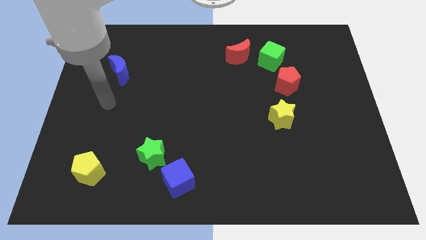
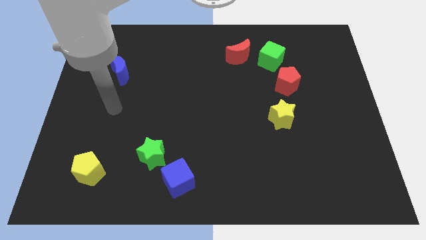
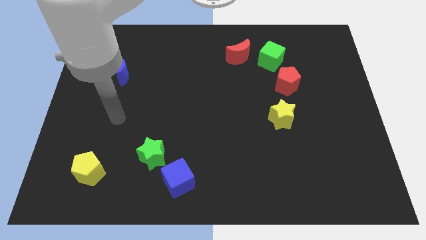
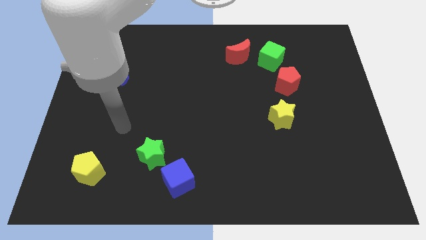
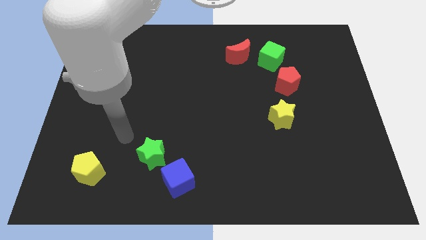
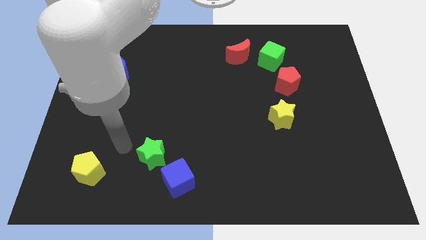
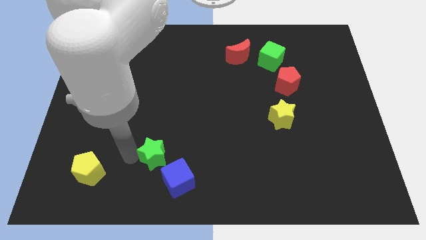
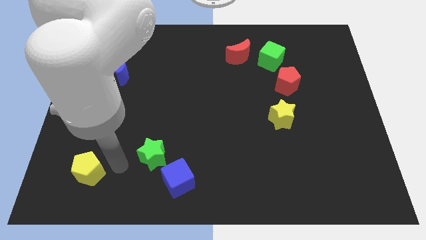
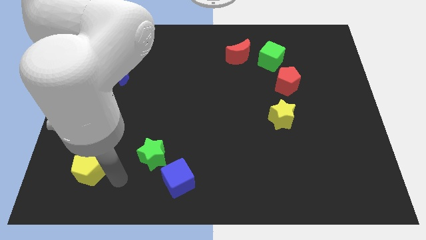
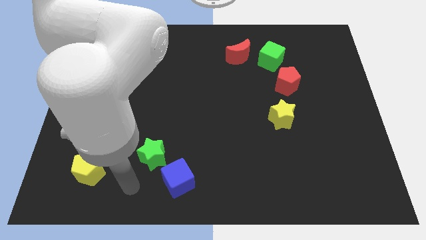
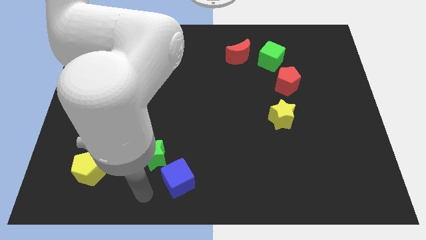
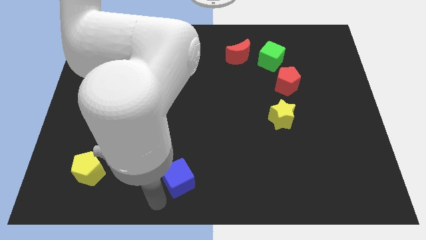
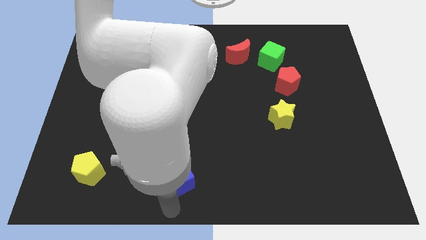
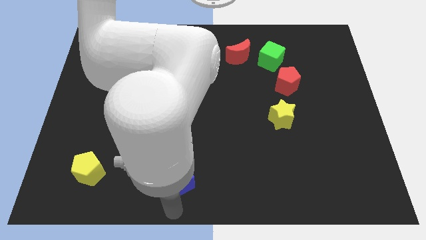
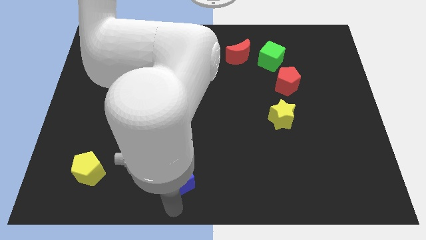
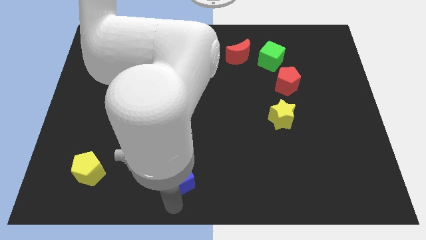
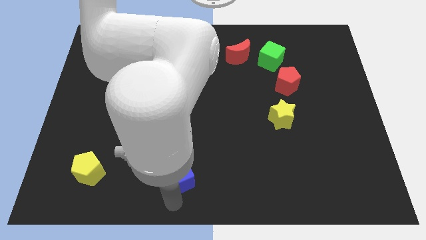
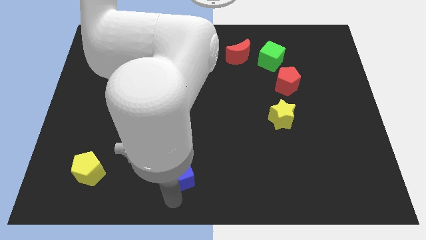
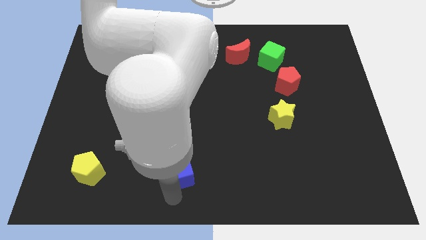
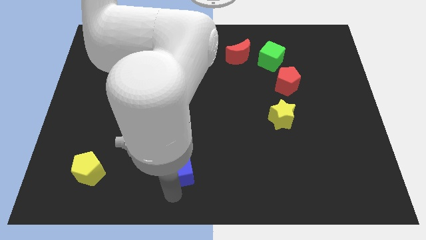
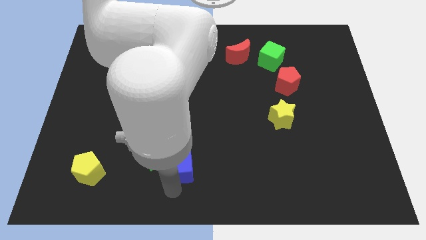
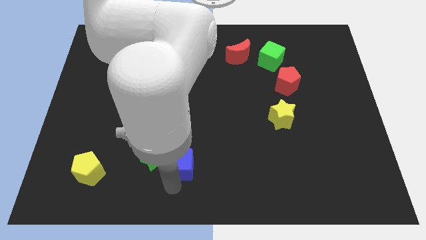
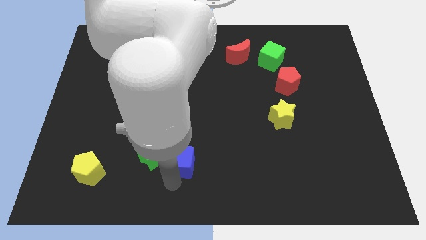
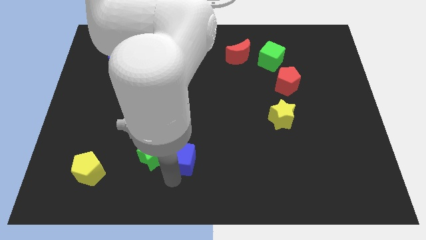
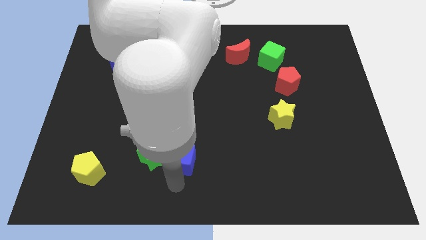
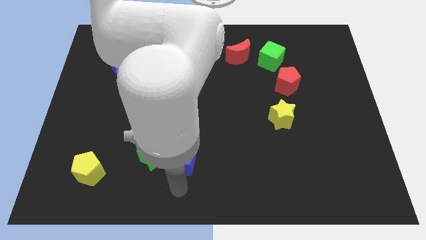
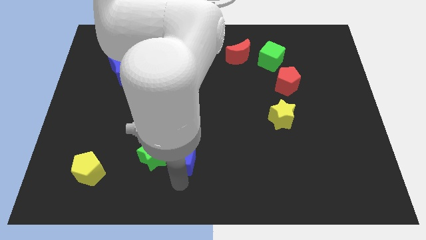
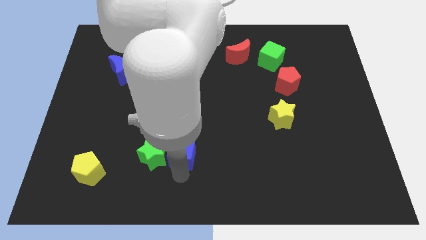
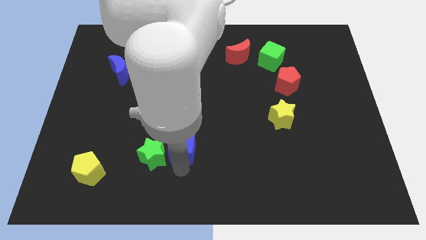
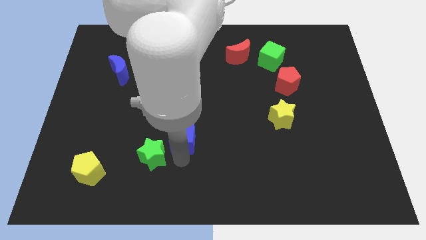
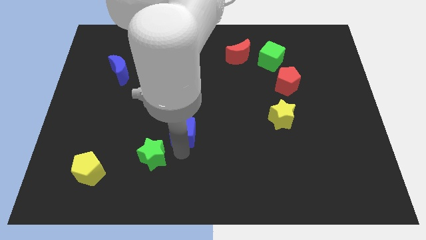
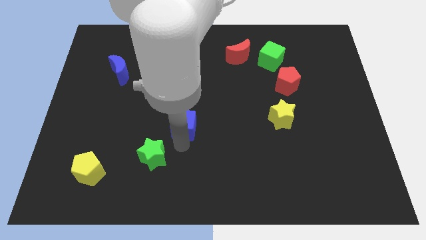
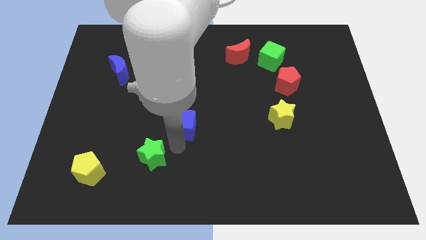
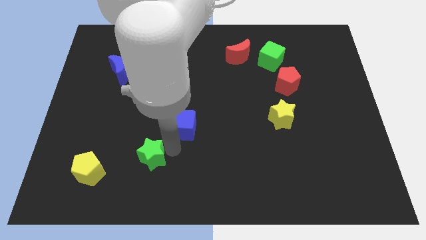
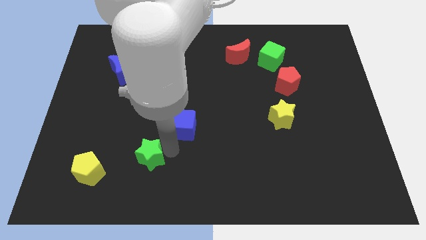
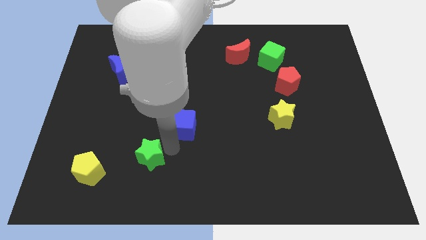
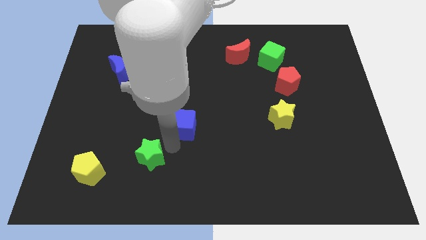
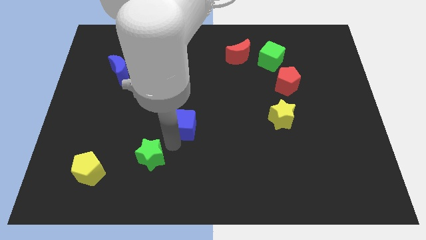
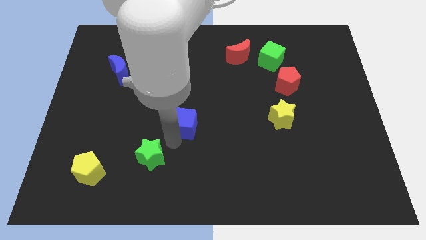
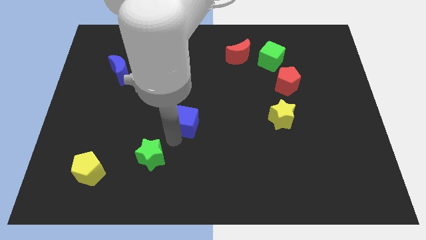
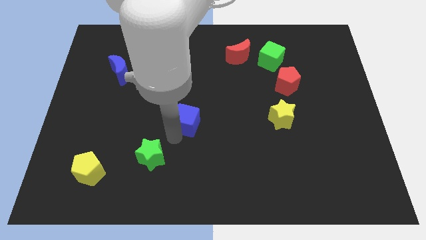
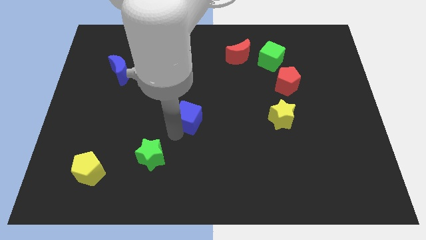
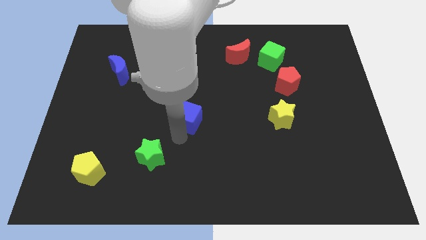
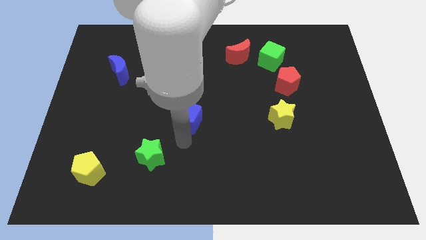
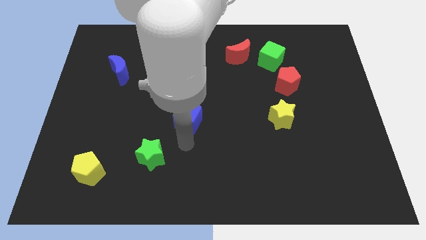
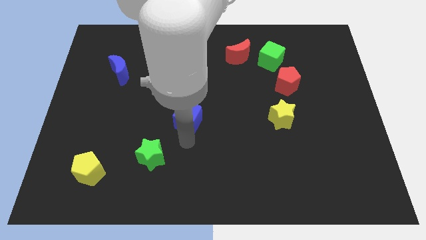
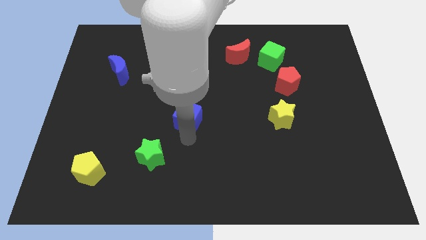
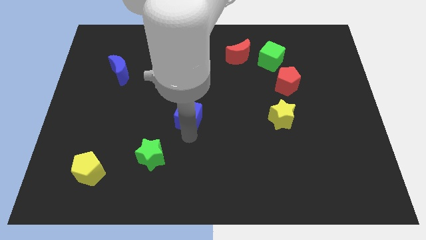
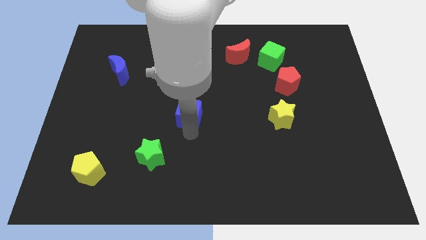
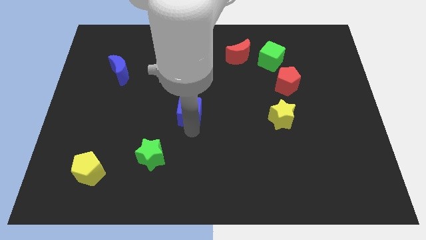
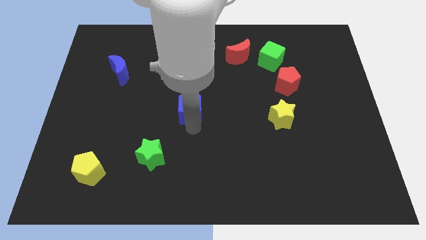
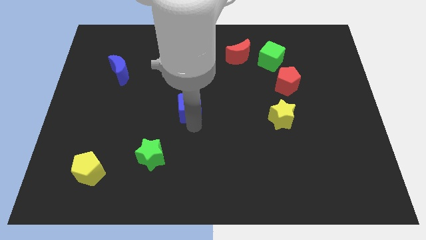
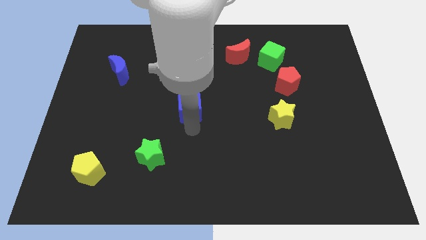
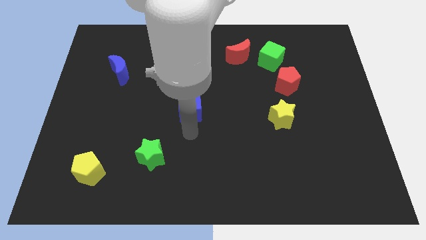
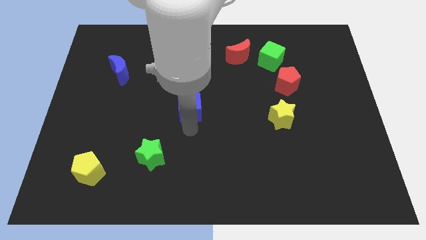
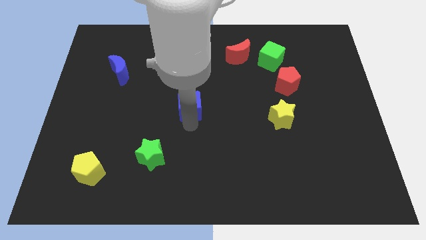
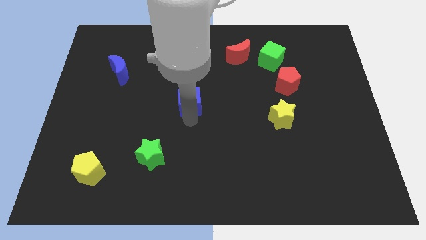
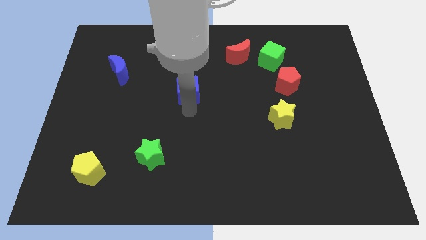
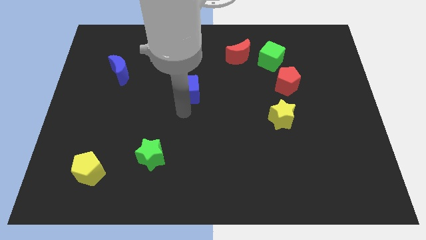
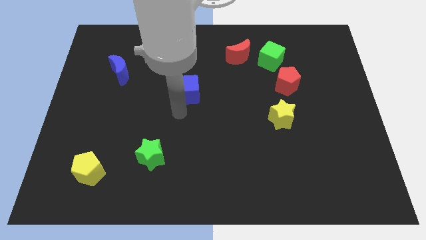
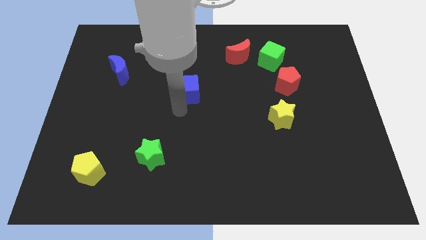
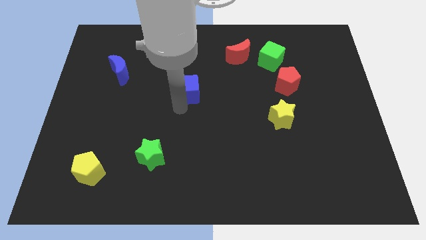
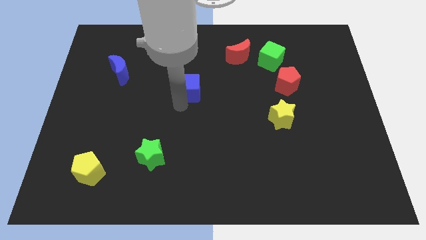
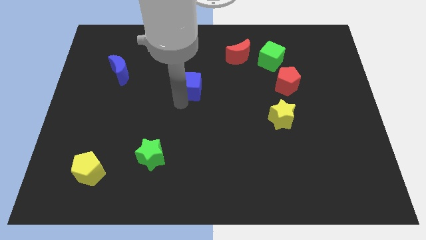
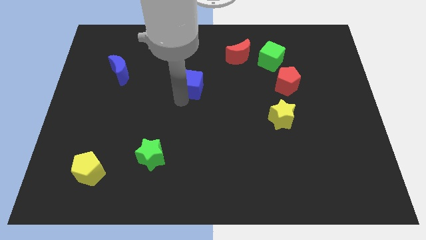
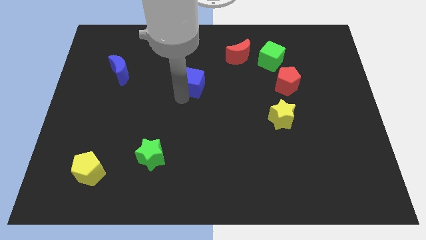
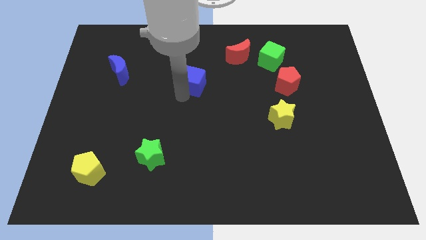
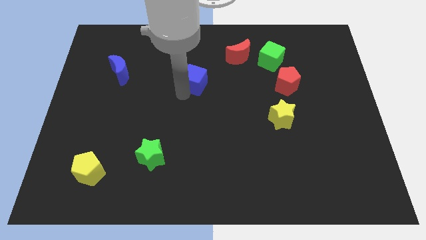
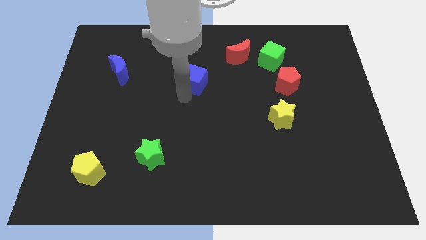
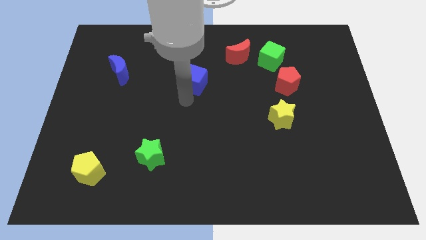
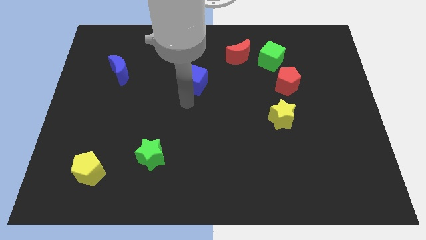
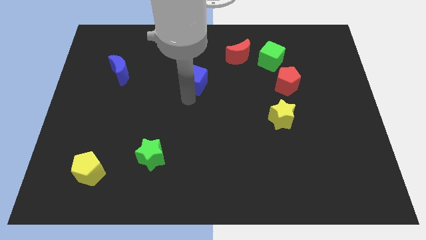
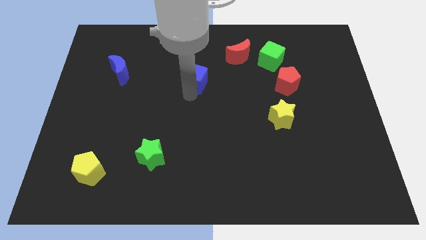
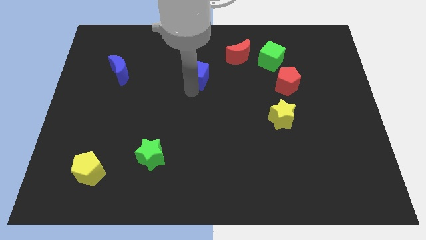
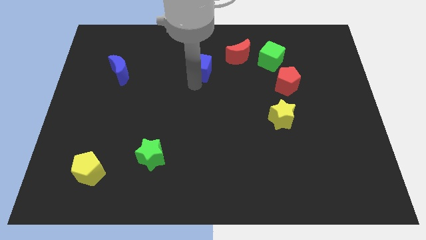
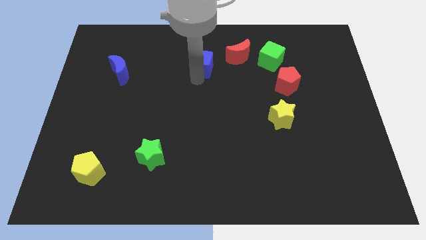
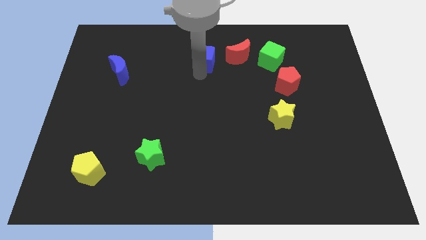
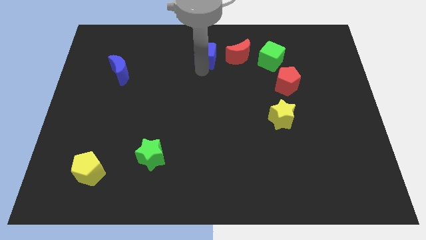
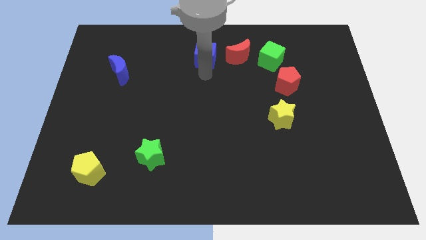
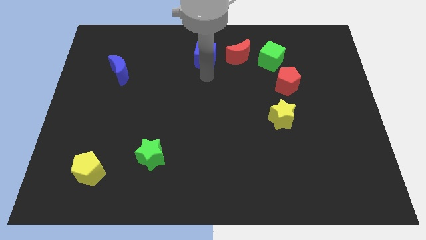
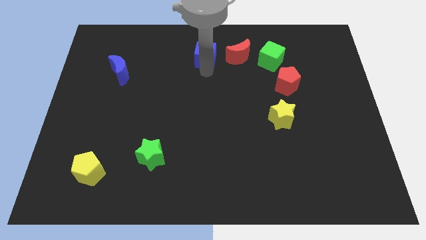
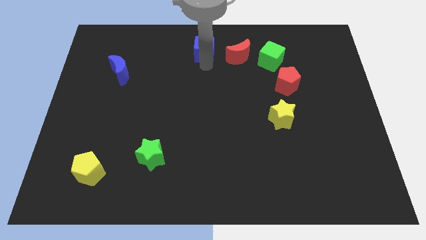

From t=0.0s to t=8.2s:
slide the blue cube to the top
